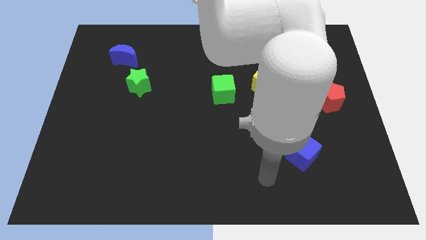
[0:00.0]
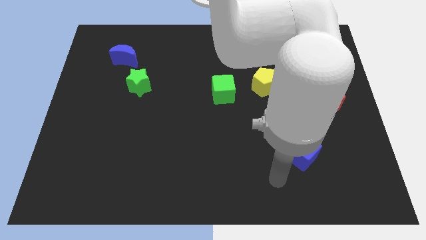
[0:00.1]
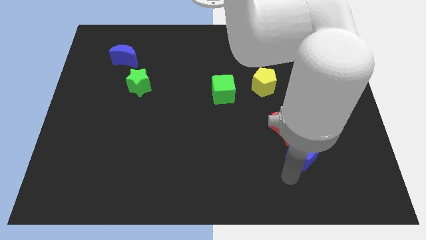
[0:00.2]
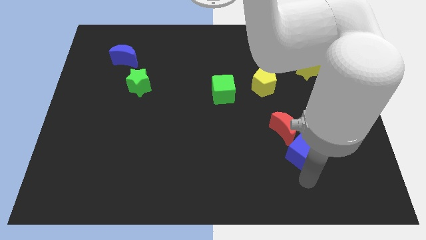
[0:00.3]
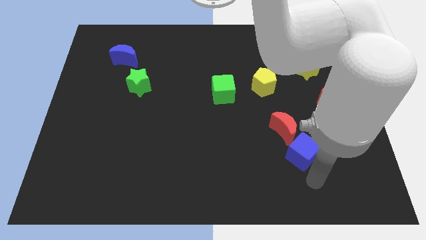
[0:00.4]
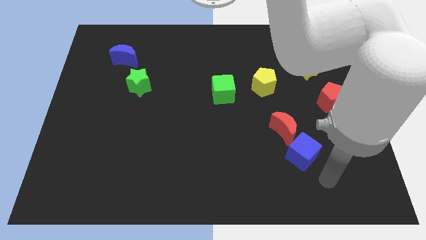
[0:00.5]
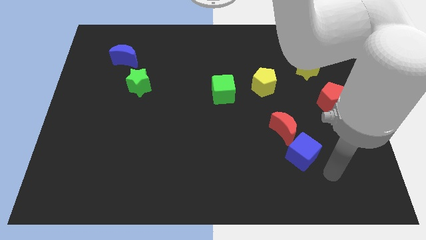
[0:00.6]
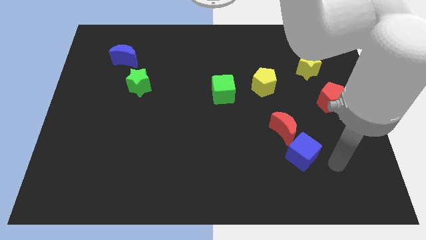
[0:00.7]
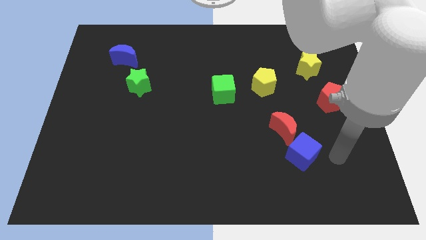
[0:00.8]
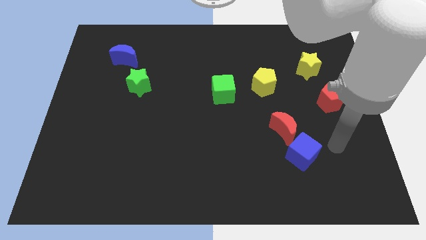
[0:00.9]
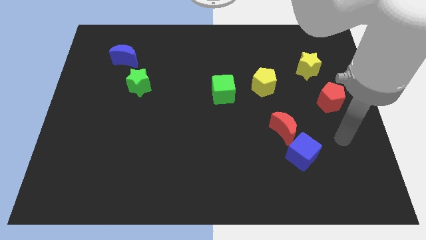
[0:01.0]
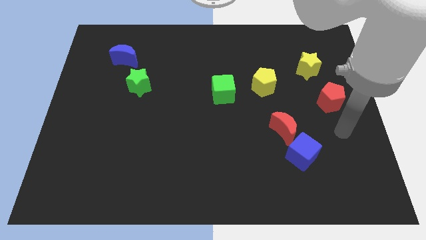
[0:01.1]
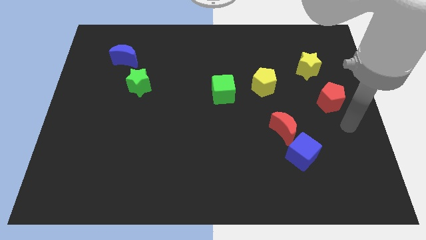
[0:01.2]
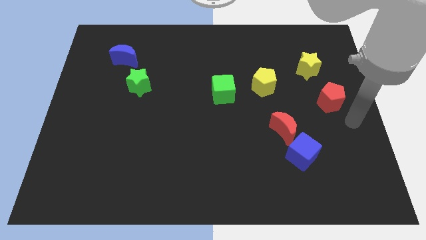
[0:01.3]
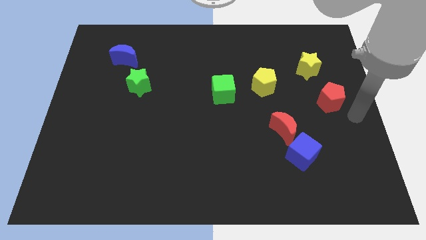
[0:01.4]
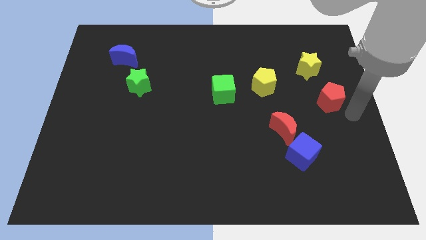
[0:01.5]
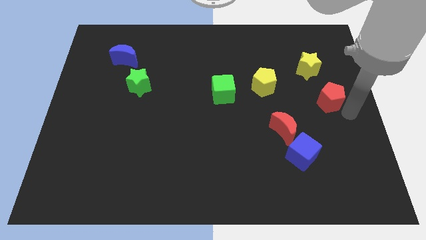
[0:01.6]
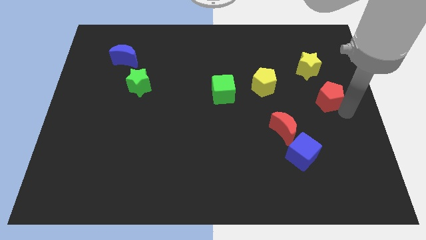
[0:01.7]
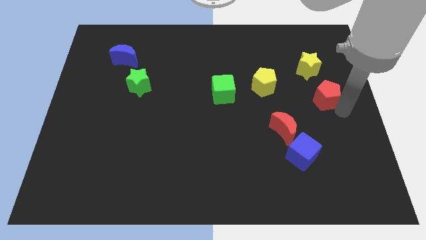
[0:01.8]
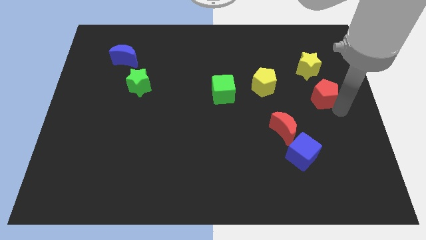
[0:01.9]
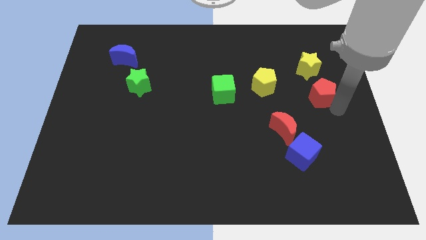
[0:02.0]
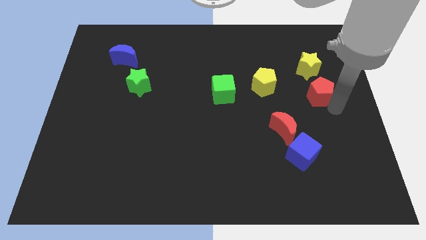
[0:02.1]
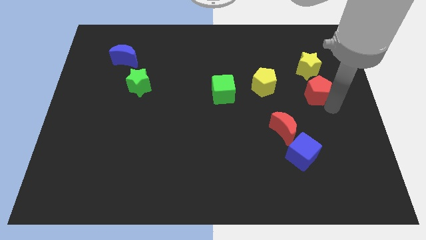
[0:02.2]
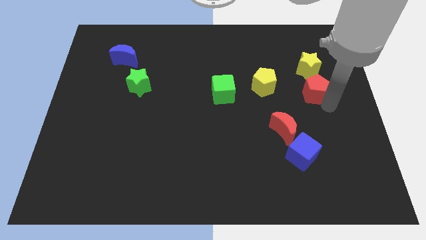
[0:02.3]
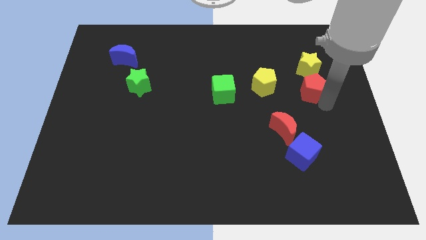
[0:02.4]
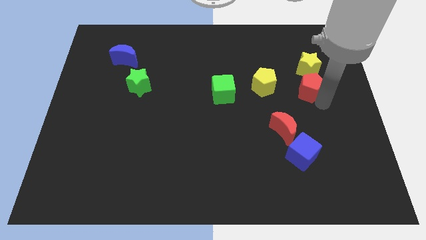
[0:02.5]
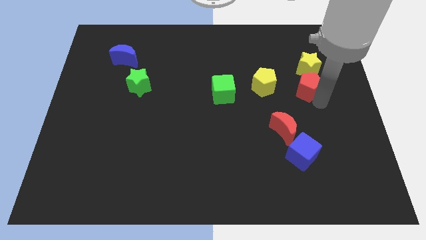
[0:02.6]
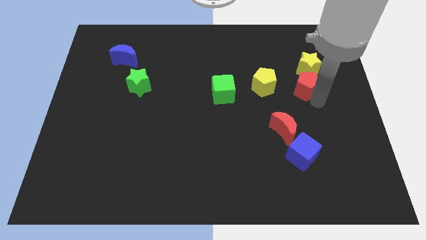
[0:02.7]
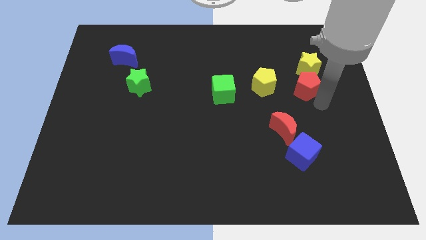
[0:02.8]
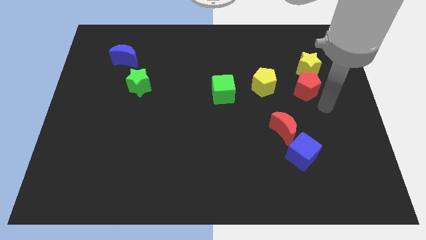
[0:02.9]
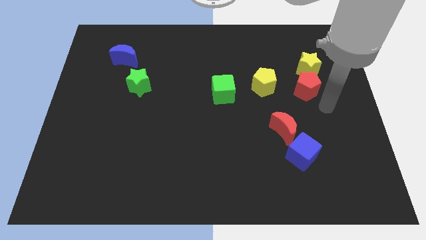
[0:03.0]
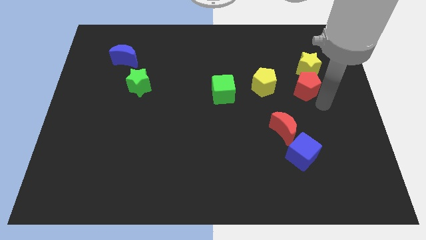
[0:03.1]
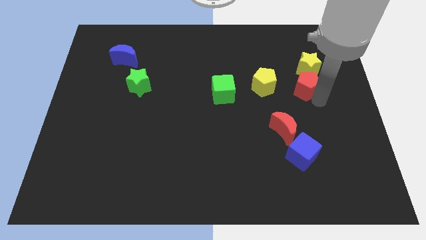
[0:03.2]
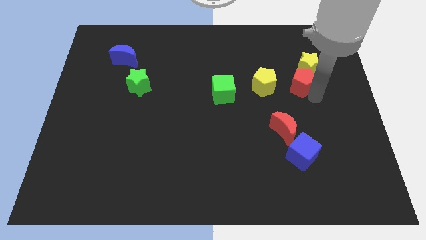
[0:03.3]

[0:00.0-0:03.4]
move the red pentagon up and left diagonally a little

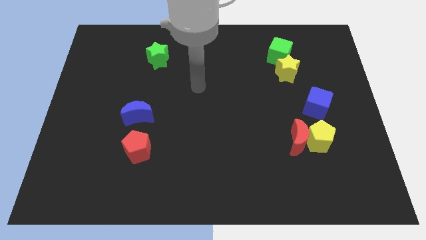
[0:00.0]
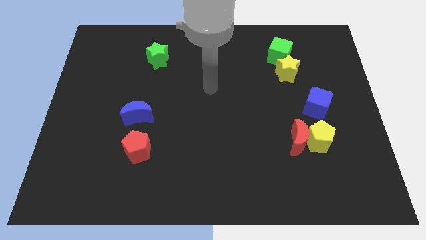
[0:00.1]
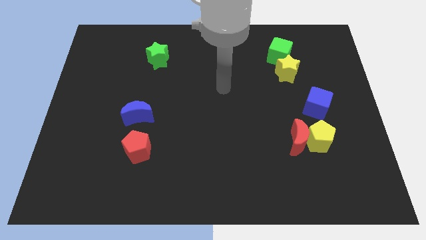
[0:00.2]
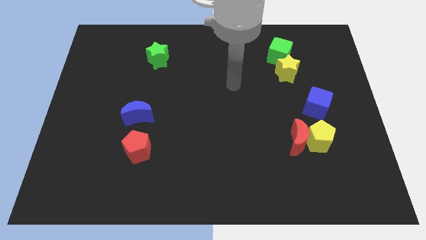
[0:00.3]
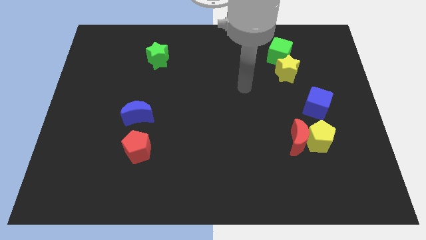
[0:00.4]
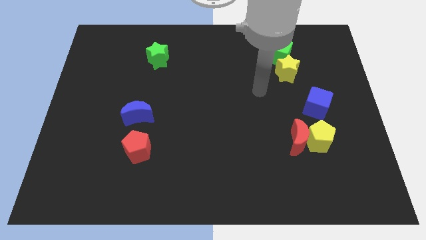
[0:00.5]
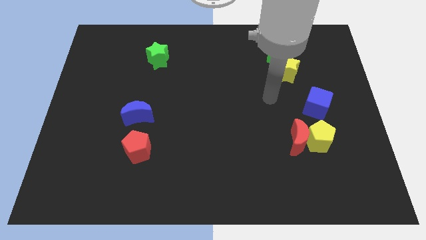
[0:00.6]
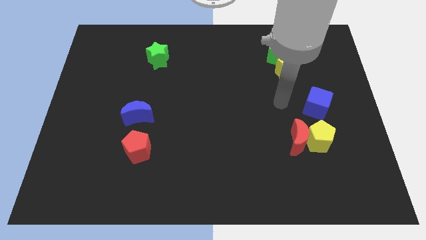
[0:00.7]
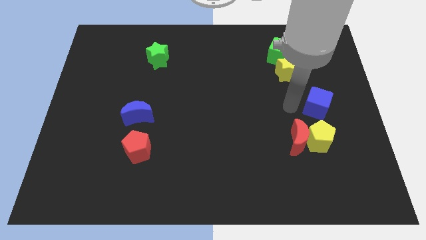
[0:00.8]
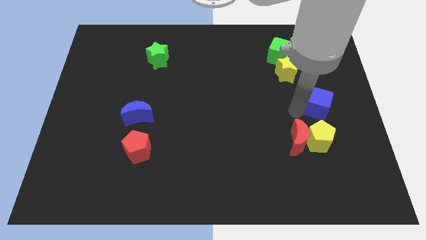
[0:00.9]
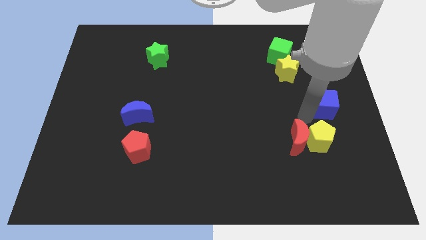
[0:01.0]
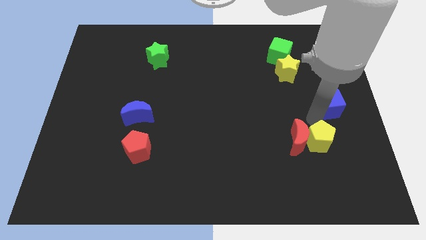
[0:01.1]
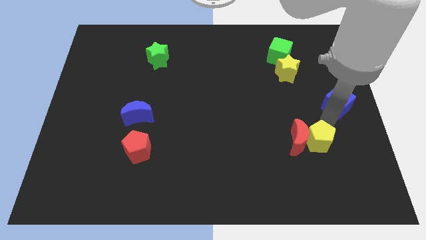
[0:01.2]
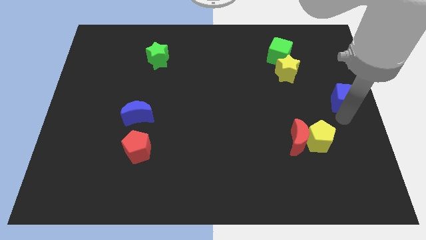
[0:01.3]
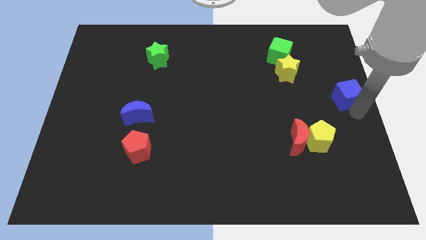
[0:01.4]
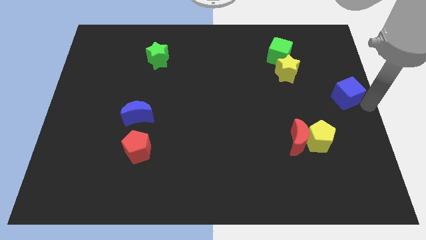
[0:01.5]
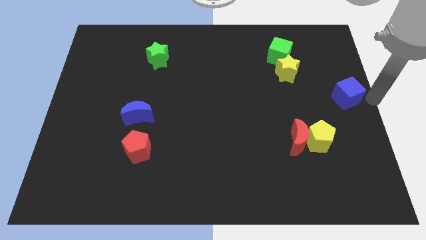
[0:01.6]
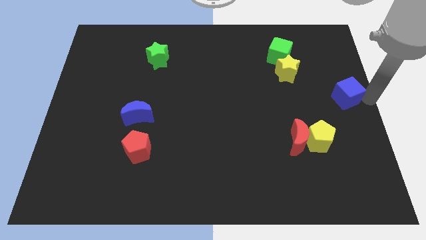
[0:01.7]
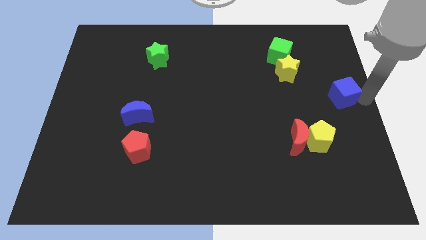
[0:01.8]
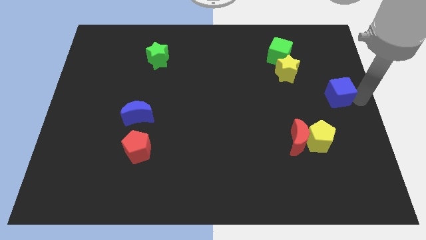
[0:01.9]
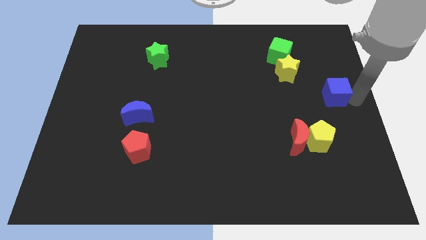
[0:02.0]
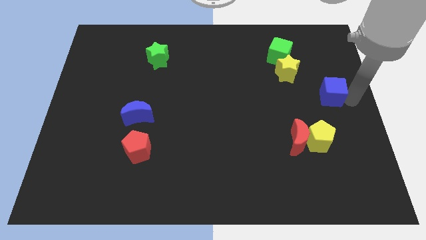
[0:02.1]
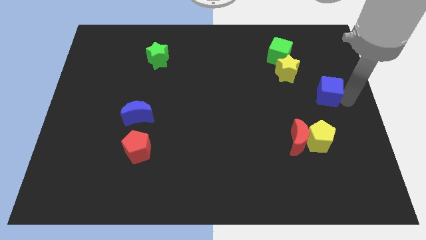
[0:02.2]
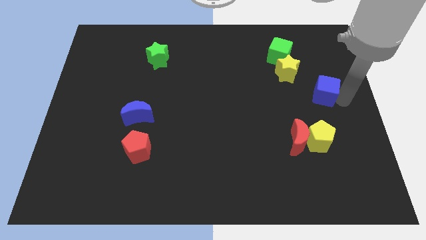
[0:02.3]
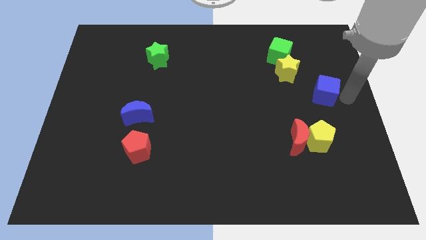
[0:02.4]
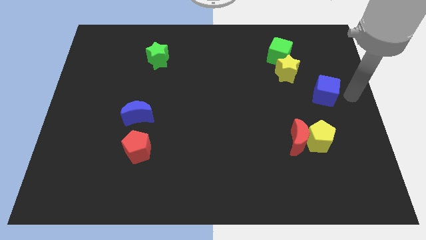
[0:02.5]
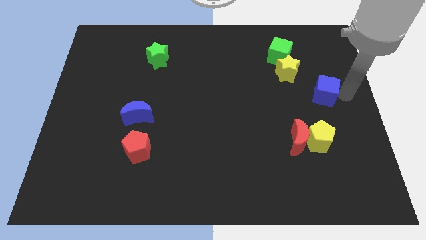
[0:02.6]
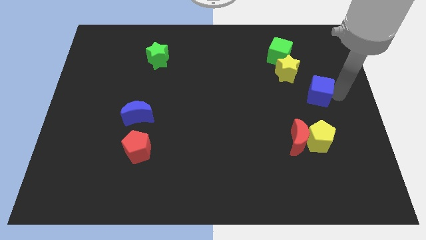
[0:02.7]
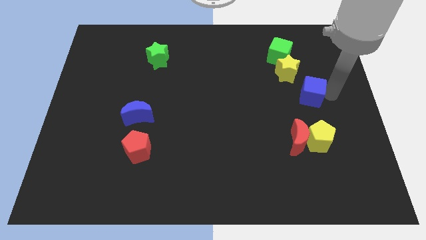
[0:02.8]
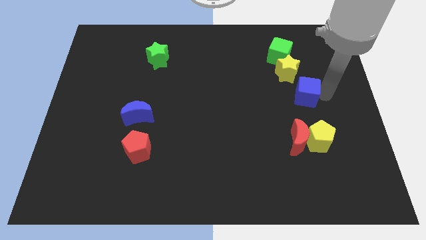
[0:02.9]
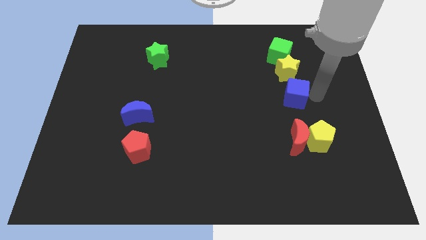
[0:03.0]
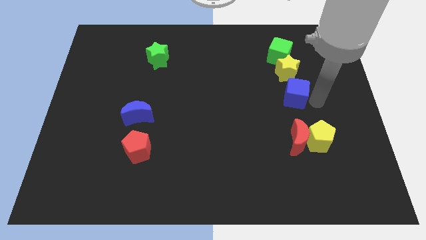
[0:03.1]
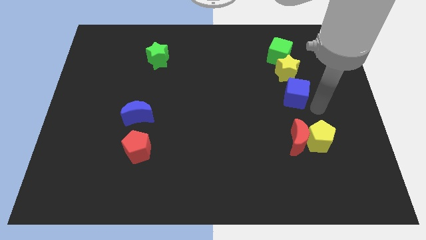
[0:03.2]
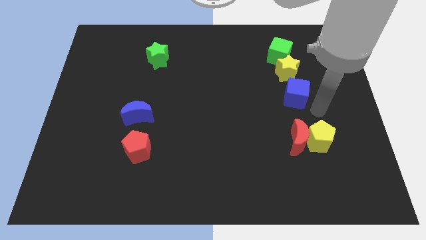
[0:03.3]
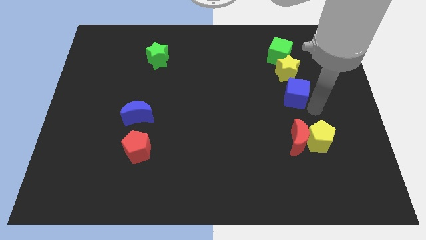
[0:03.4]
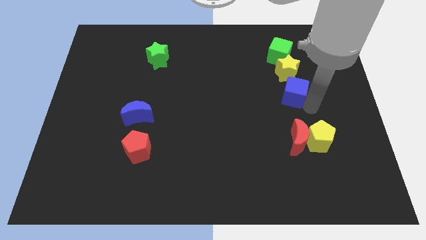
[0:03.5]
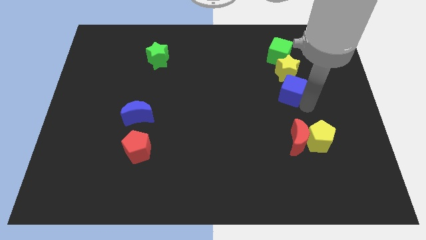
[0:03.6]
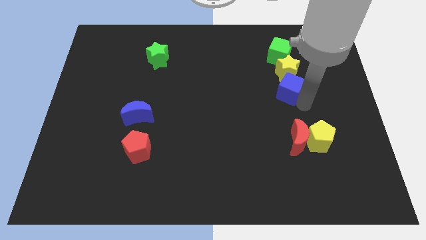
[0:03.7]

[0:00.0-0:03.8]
push the blue cube a bit upwards and left

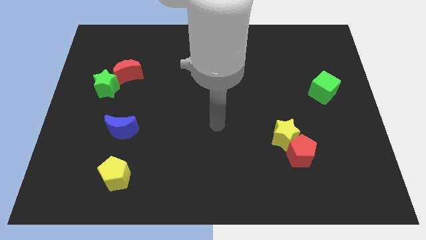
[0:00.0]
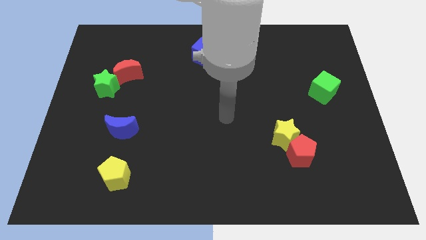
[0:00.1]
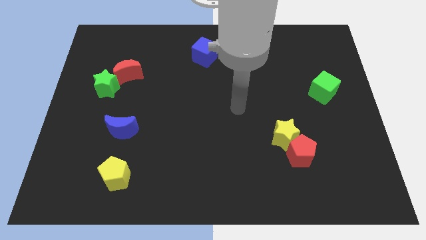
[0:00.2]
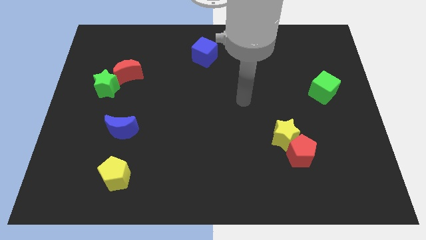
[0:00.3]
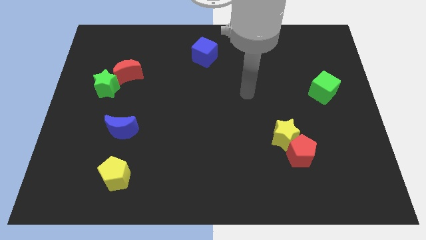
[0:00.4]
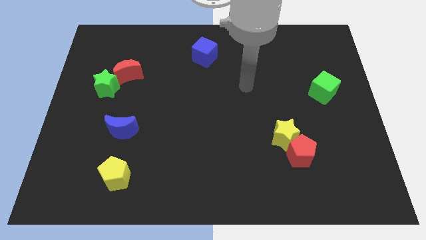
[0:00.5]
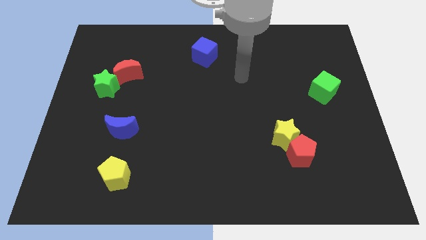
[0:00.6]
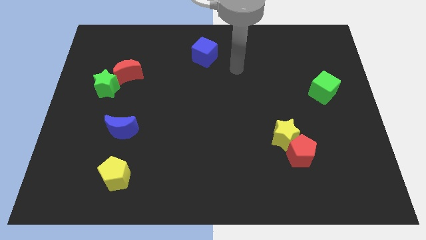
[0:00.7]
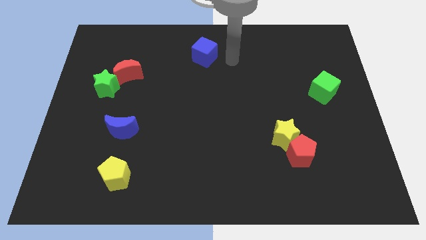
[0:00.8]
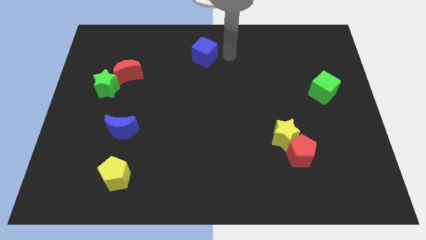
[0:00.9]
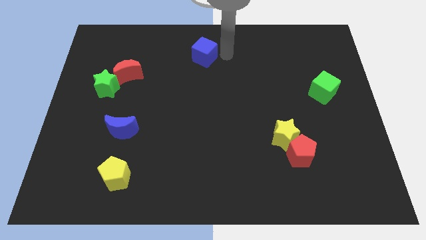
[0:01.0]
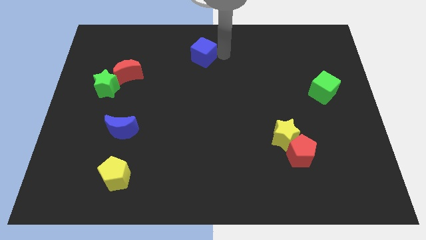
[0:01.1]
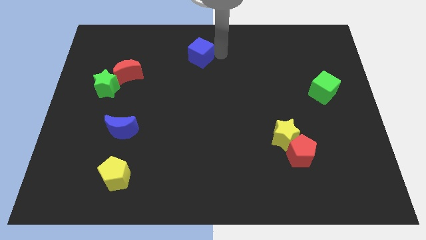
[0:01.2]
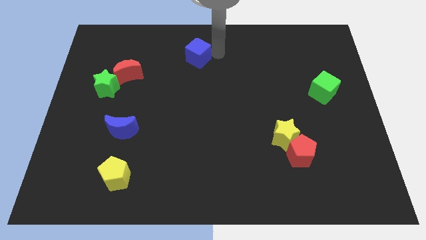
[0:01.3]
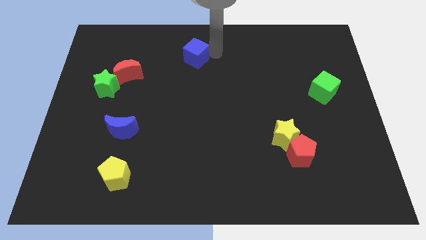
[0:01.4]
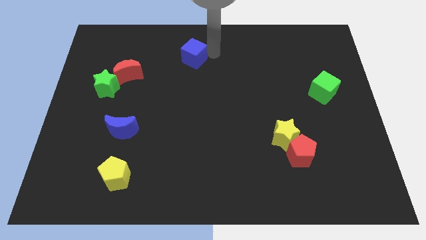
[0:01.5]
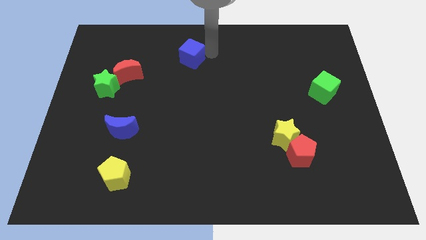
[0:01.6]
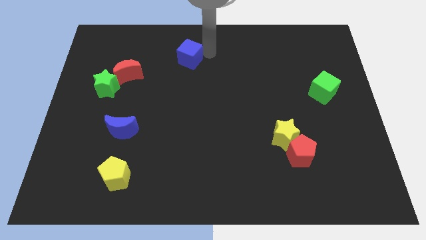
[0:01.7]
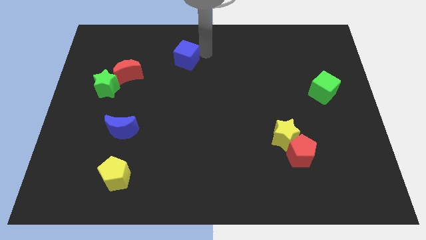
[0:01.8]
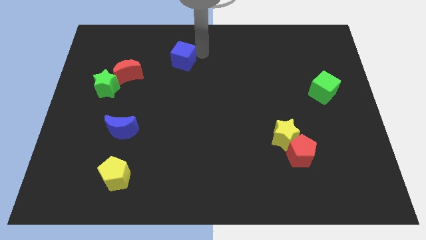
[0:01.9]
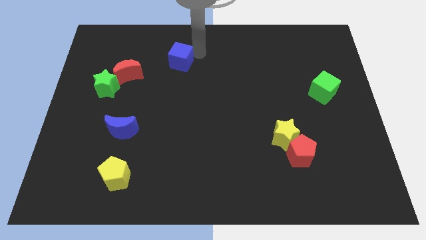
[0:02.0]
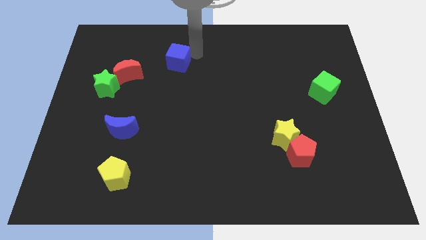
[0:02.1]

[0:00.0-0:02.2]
slide the blue cube a bit left
